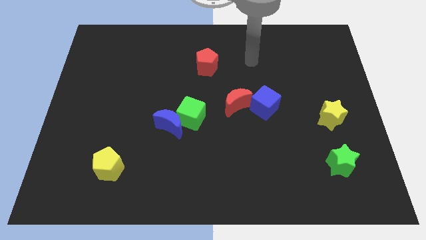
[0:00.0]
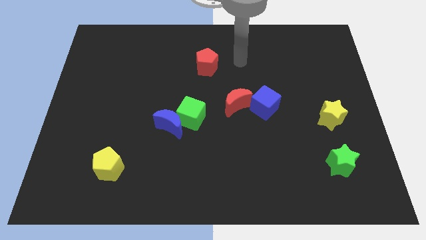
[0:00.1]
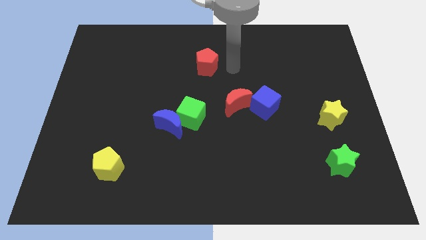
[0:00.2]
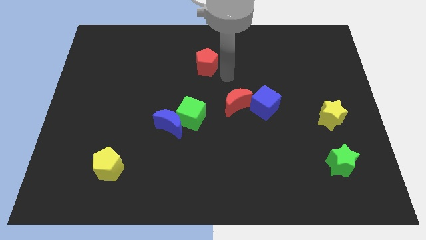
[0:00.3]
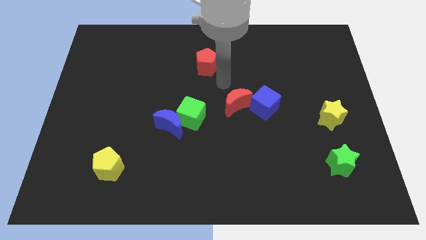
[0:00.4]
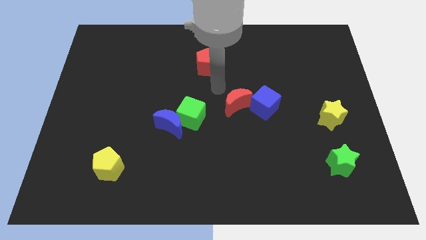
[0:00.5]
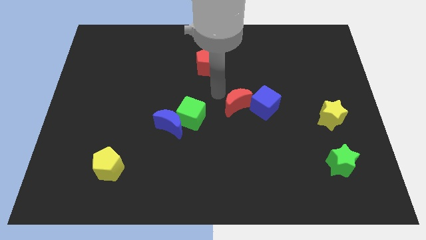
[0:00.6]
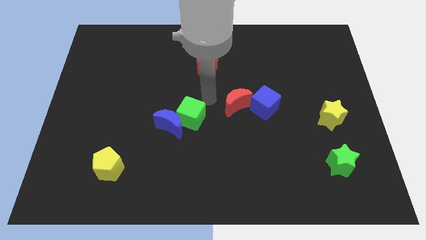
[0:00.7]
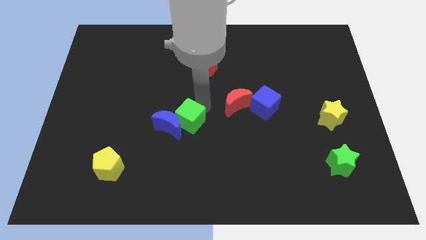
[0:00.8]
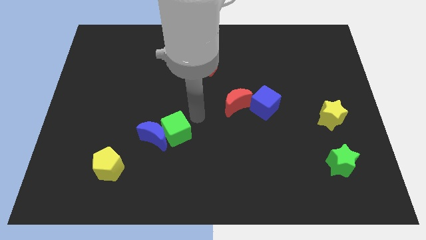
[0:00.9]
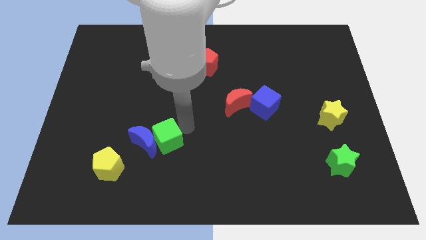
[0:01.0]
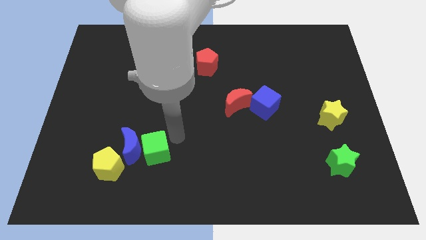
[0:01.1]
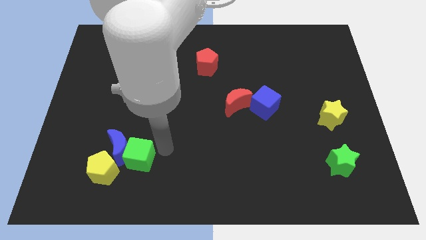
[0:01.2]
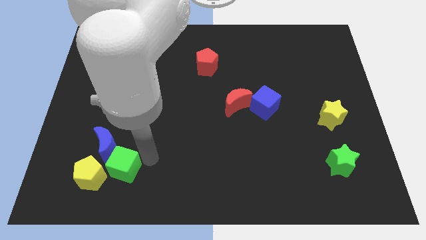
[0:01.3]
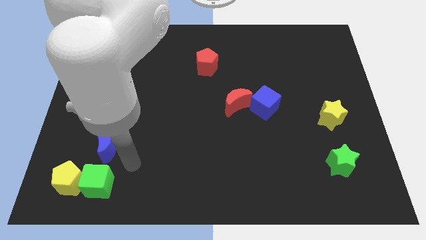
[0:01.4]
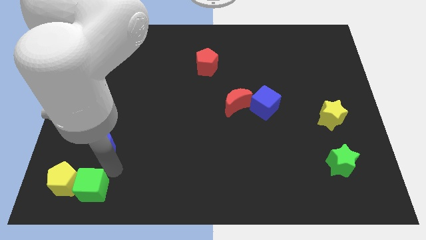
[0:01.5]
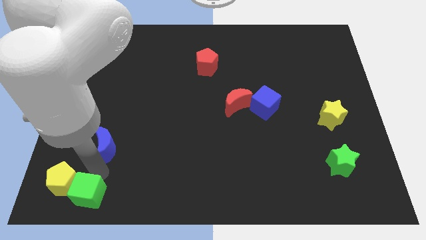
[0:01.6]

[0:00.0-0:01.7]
move the blue moon away from the green cube

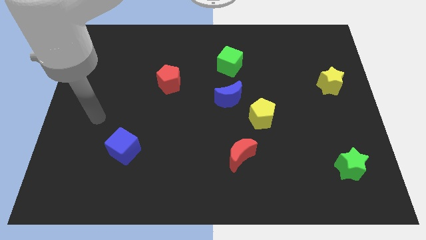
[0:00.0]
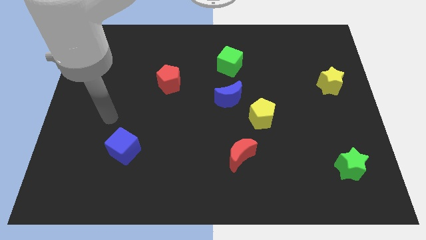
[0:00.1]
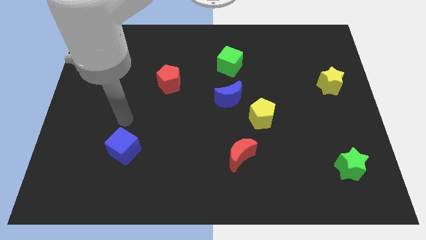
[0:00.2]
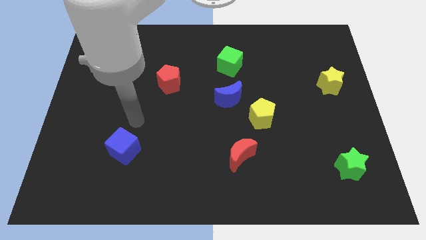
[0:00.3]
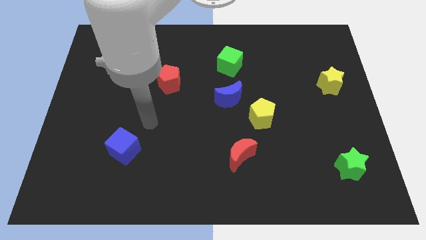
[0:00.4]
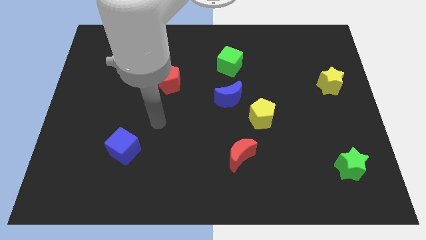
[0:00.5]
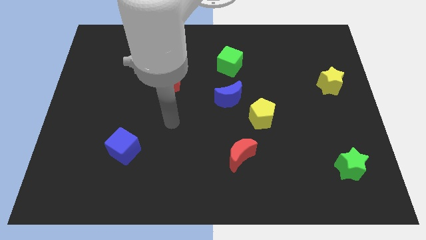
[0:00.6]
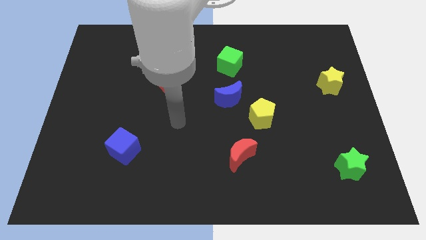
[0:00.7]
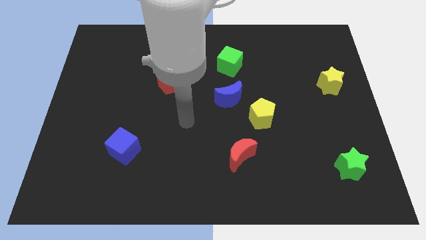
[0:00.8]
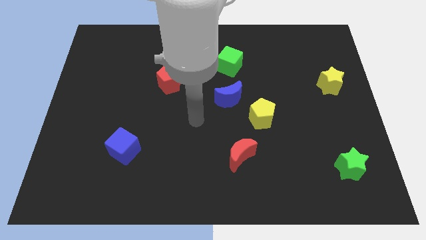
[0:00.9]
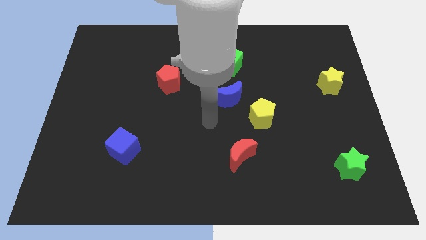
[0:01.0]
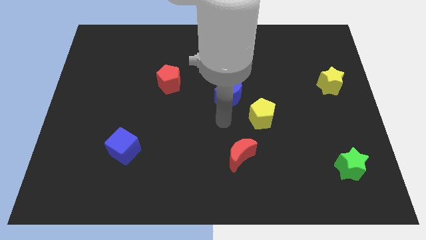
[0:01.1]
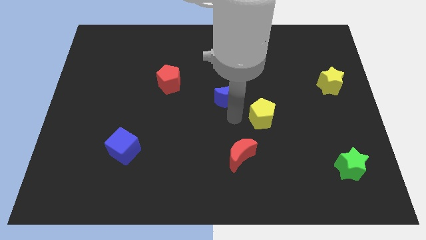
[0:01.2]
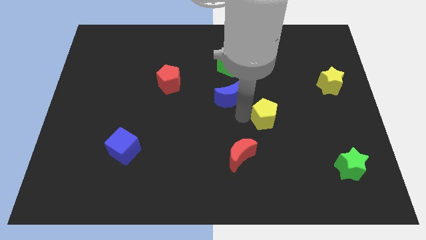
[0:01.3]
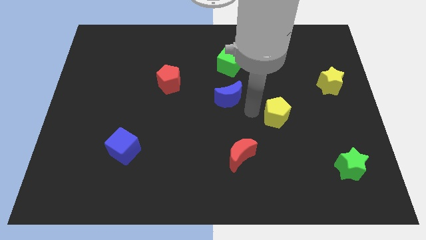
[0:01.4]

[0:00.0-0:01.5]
move the blue moon away from the yellow pentagon

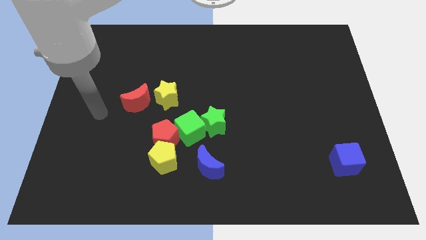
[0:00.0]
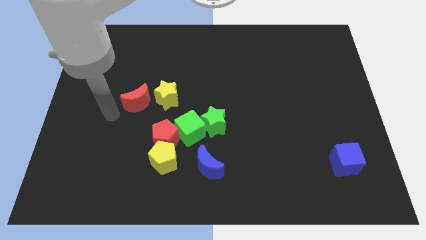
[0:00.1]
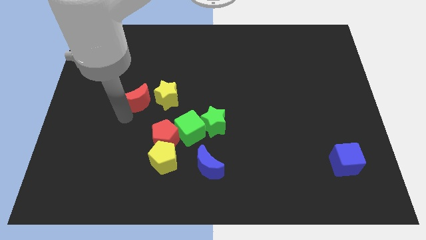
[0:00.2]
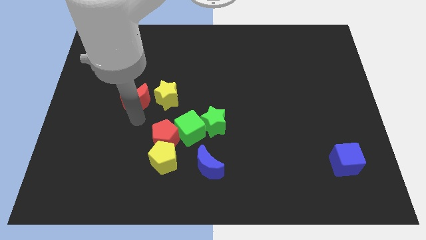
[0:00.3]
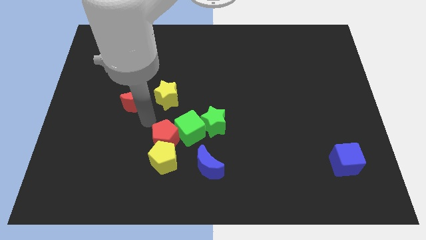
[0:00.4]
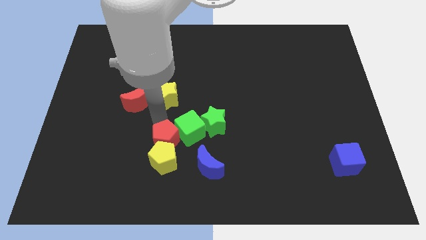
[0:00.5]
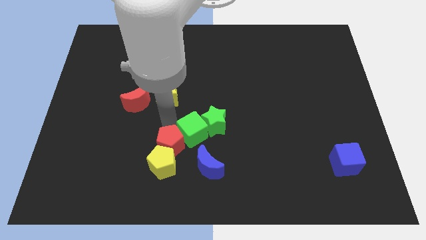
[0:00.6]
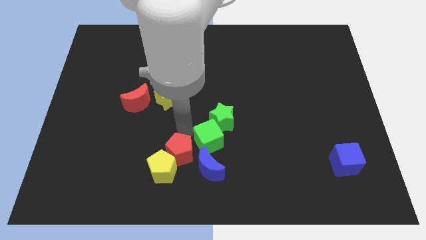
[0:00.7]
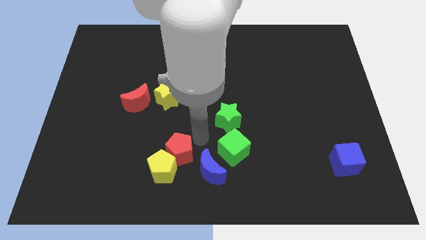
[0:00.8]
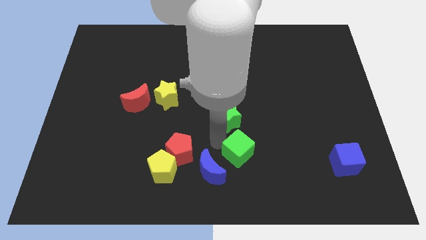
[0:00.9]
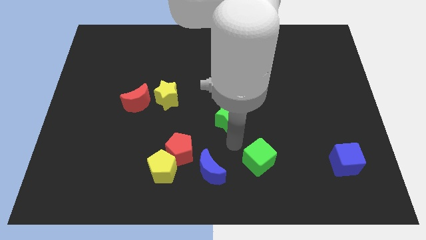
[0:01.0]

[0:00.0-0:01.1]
move the green star away from the green cube

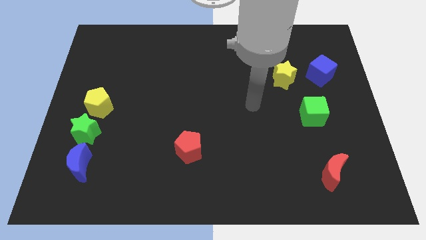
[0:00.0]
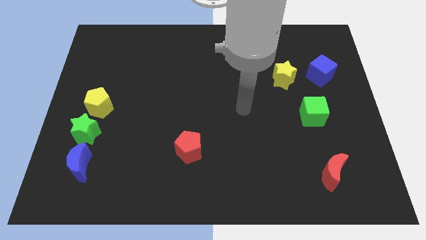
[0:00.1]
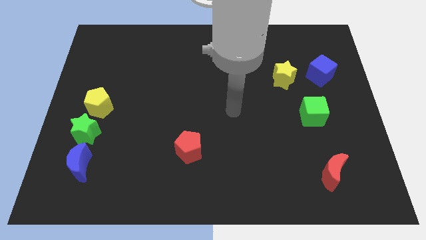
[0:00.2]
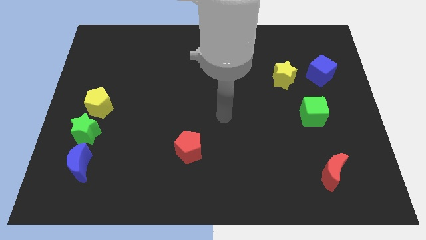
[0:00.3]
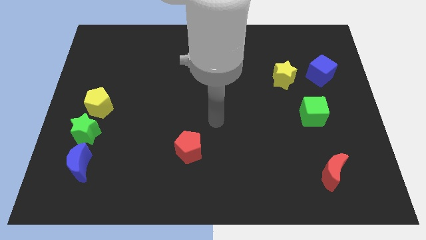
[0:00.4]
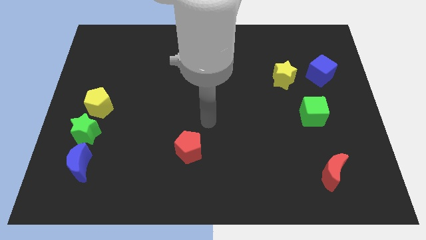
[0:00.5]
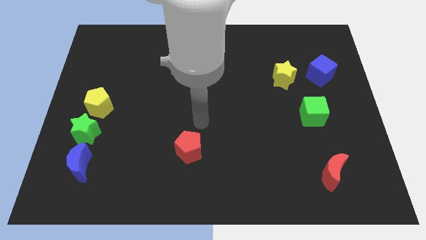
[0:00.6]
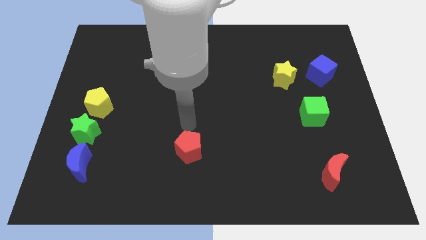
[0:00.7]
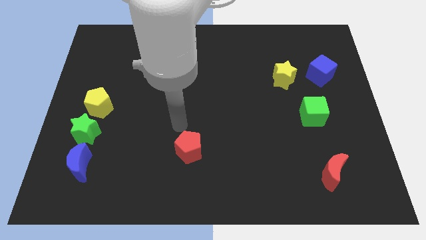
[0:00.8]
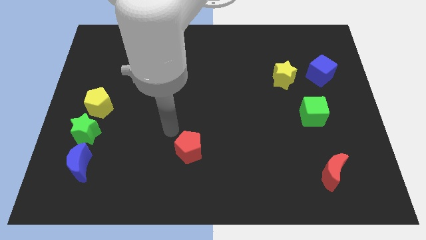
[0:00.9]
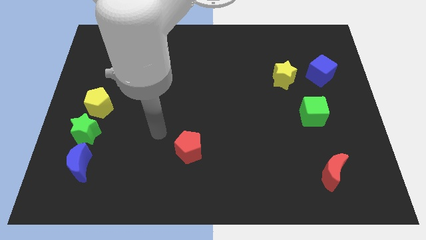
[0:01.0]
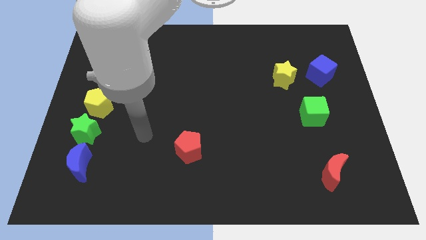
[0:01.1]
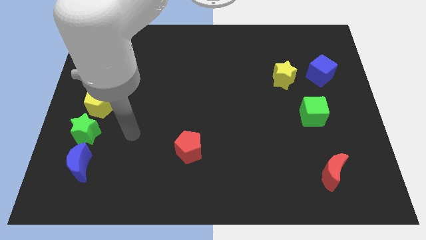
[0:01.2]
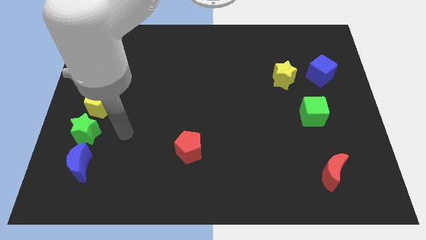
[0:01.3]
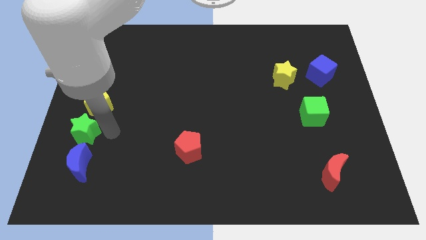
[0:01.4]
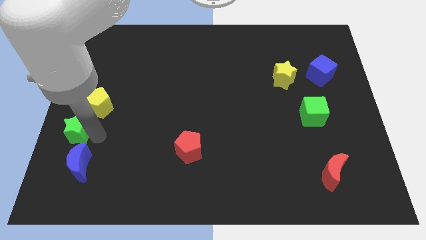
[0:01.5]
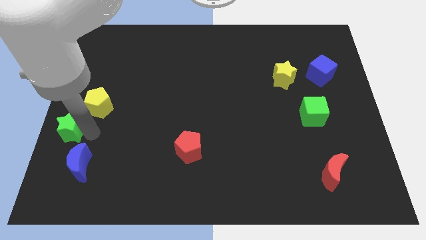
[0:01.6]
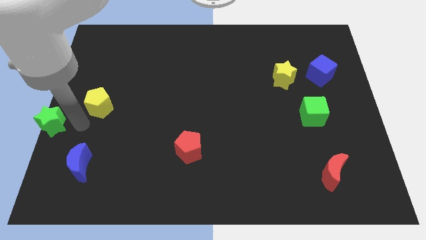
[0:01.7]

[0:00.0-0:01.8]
separate the yellow pentagon from the green star

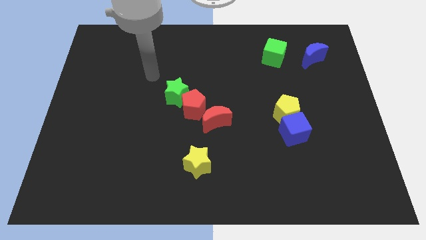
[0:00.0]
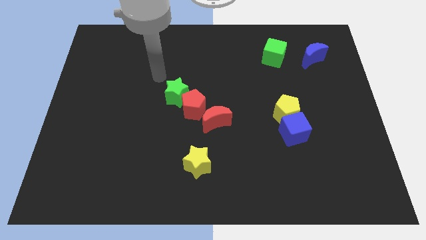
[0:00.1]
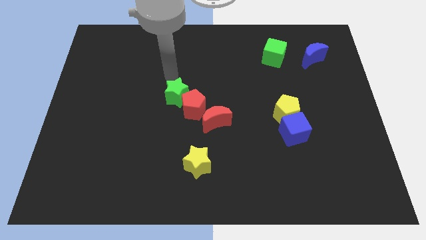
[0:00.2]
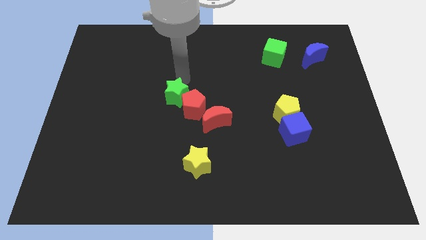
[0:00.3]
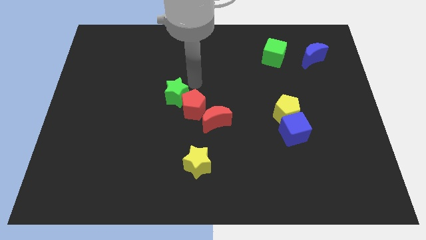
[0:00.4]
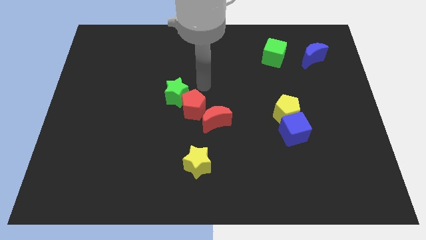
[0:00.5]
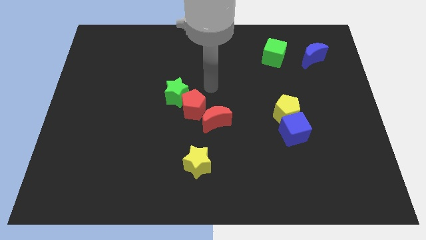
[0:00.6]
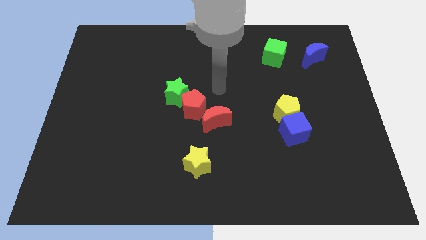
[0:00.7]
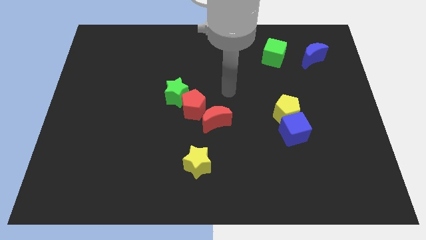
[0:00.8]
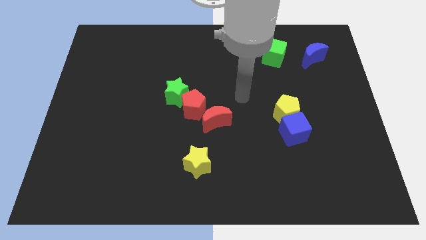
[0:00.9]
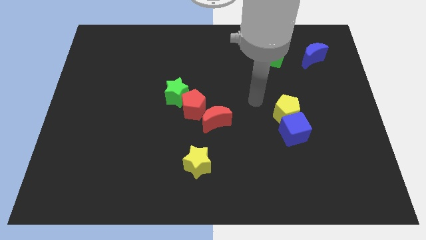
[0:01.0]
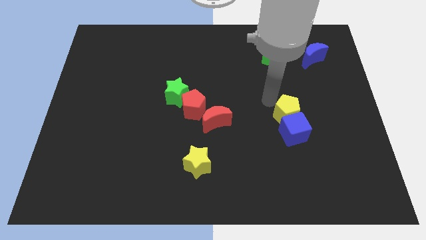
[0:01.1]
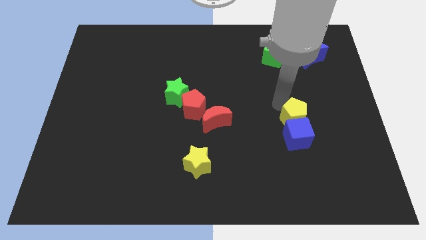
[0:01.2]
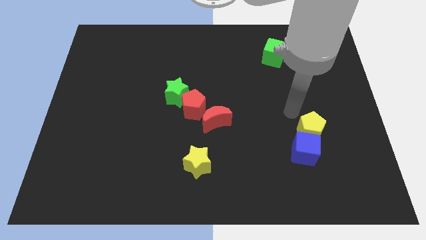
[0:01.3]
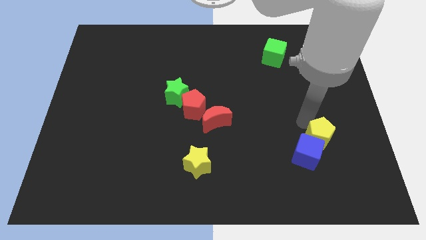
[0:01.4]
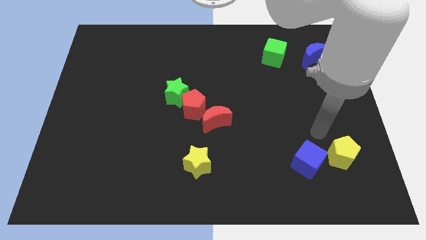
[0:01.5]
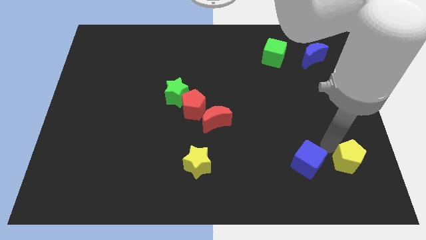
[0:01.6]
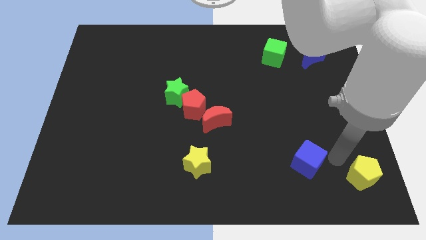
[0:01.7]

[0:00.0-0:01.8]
pull the blue cube apart from the yellow pentagon

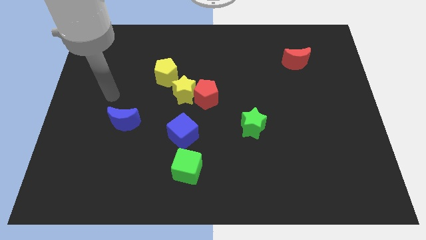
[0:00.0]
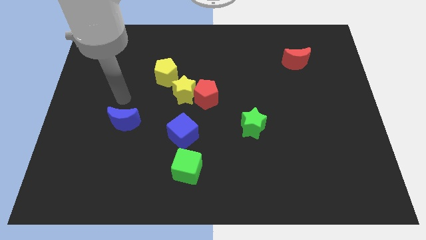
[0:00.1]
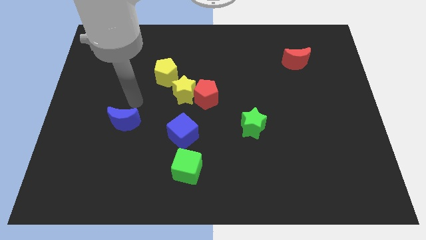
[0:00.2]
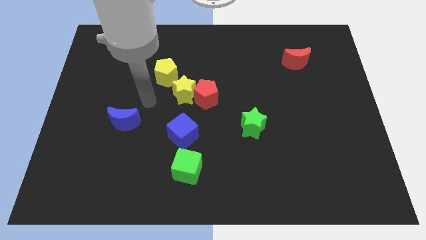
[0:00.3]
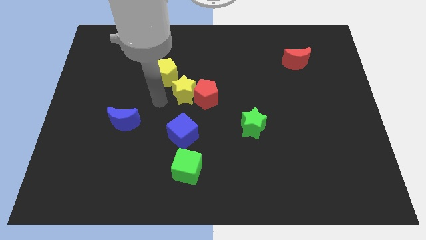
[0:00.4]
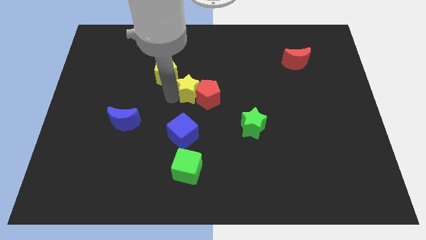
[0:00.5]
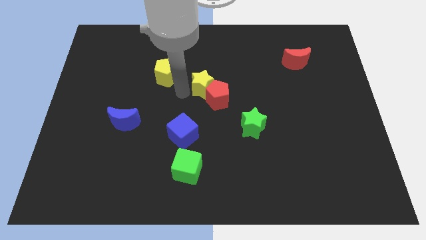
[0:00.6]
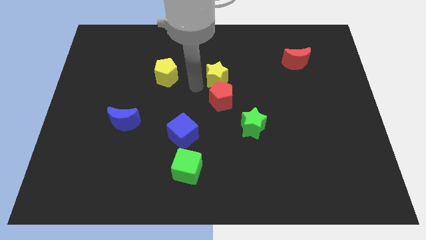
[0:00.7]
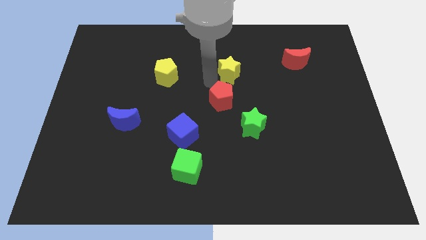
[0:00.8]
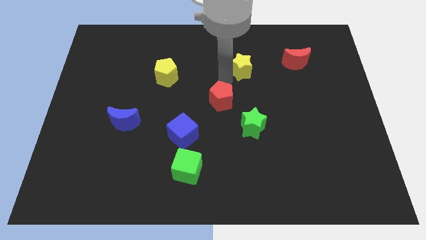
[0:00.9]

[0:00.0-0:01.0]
pull the red pentagon apart from the yellow star

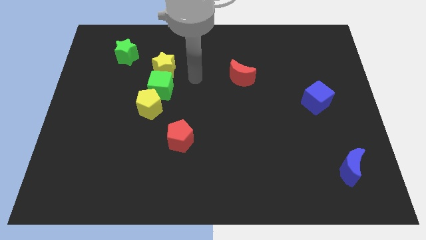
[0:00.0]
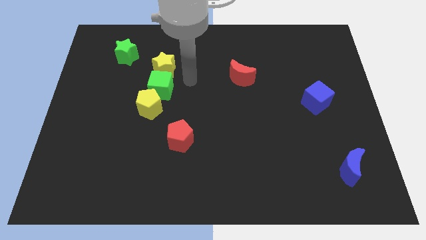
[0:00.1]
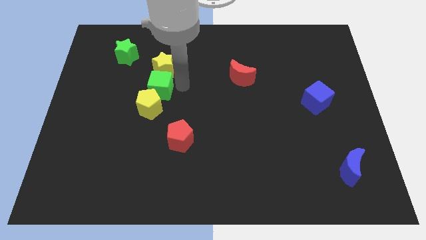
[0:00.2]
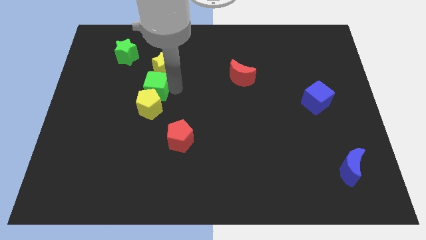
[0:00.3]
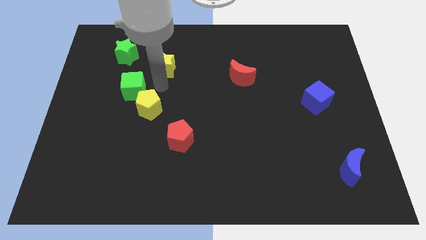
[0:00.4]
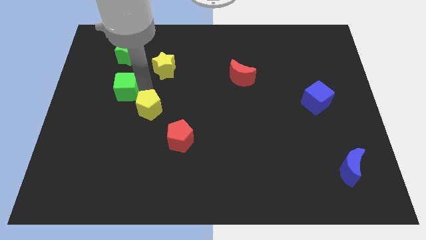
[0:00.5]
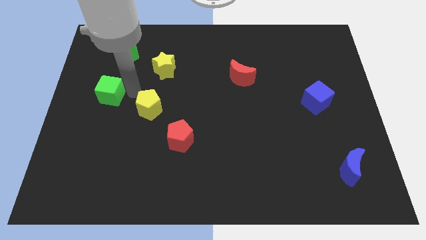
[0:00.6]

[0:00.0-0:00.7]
separate the yellow pentagon from the green cube
